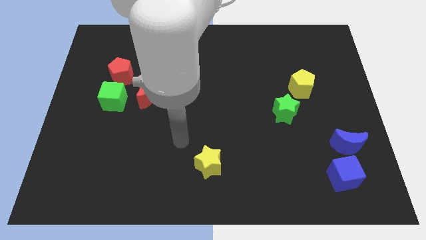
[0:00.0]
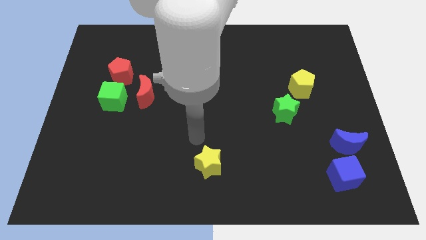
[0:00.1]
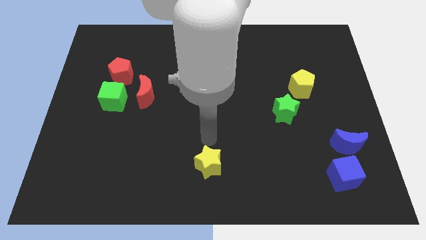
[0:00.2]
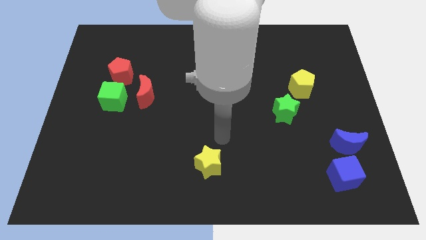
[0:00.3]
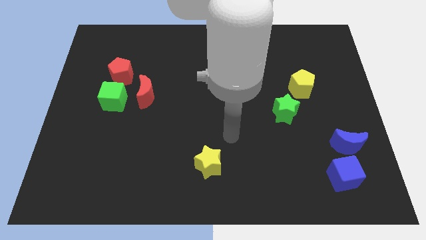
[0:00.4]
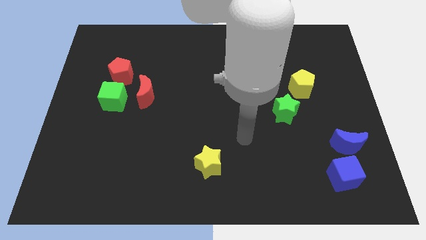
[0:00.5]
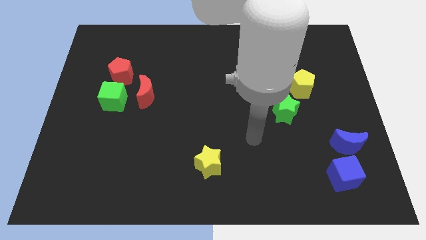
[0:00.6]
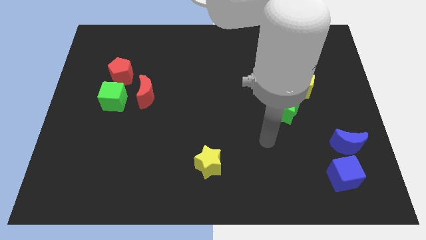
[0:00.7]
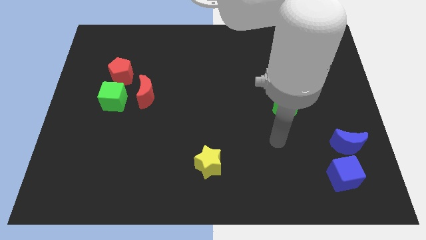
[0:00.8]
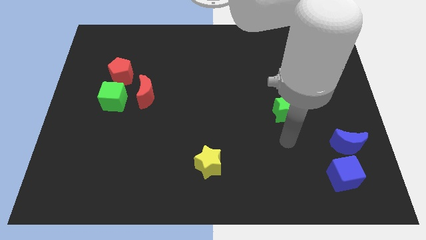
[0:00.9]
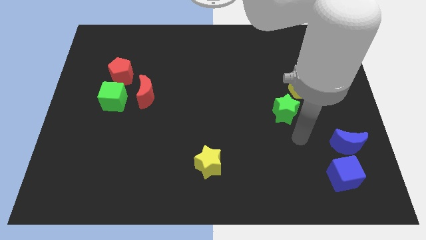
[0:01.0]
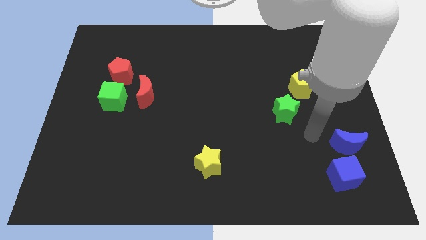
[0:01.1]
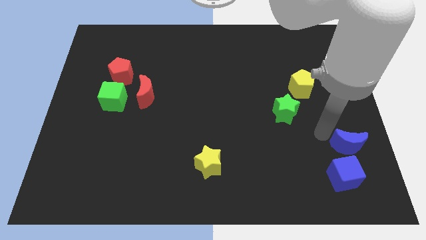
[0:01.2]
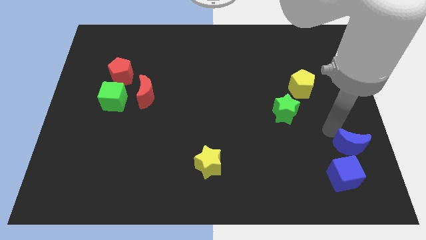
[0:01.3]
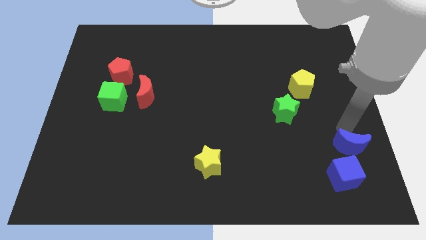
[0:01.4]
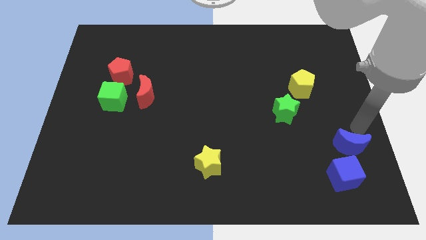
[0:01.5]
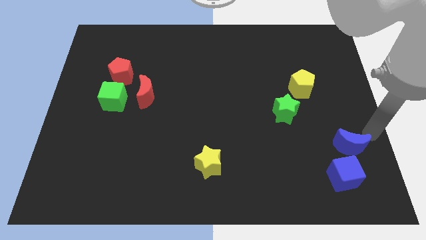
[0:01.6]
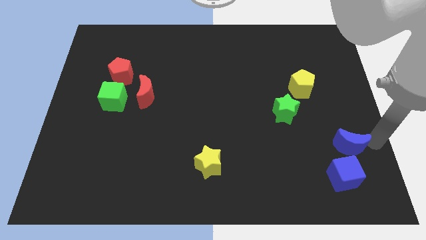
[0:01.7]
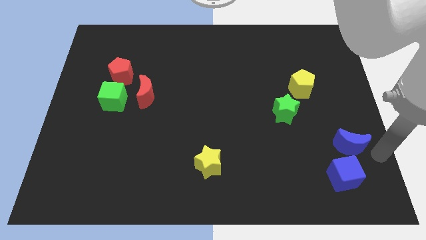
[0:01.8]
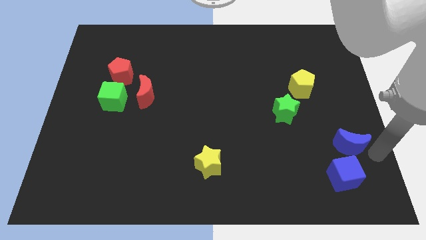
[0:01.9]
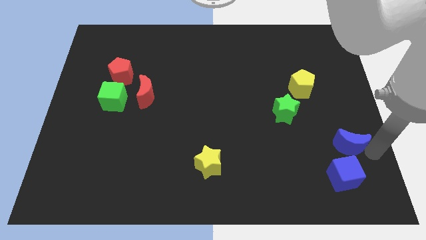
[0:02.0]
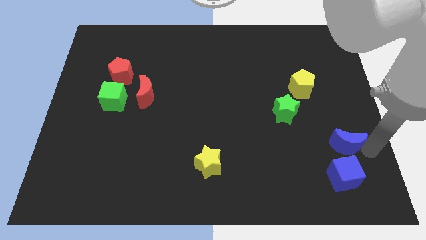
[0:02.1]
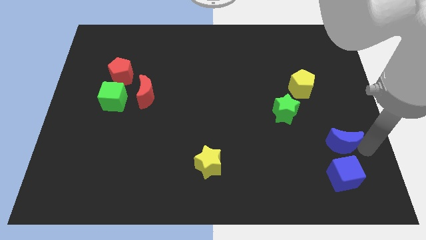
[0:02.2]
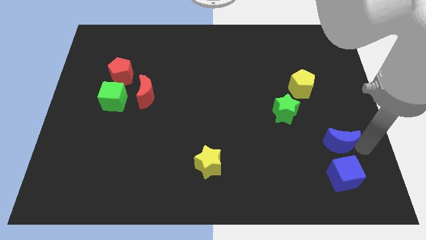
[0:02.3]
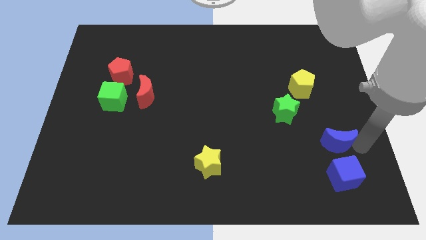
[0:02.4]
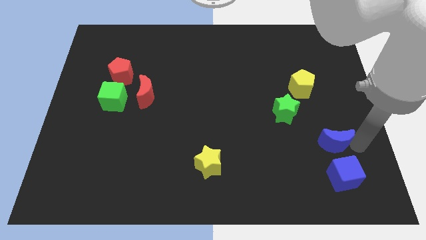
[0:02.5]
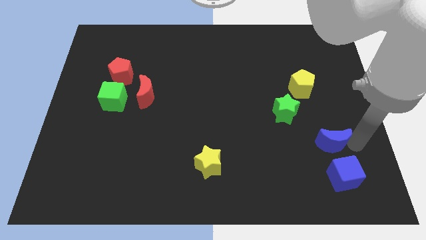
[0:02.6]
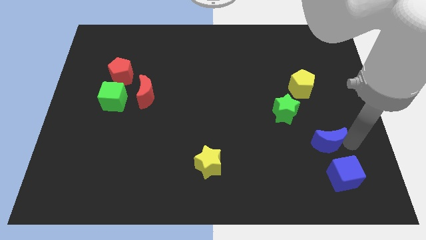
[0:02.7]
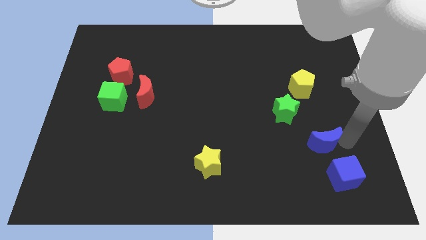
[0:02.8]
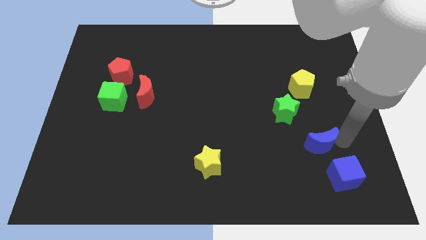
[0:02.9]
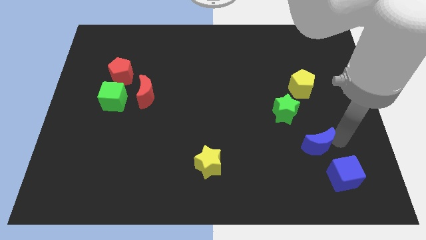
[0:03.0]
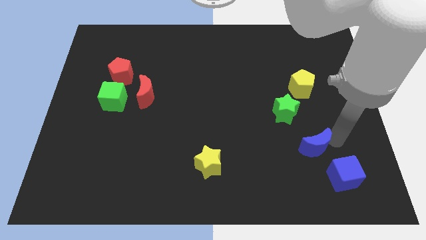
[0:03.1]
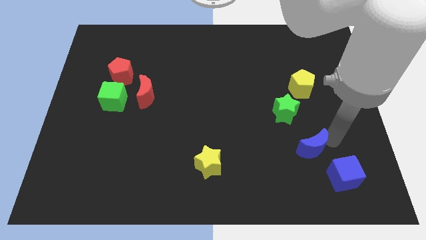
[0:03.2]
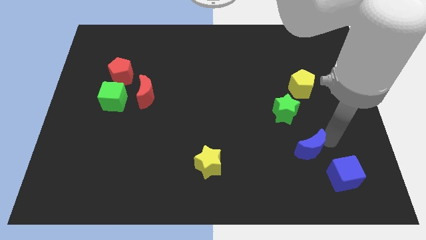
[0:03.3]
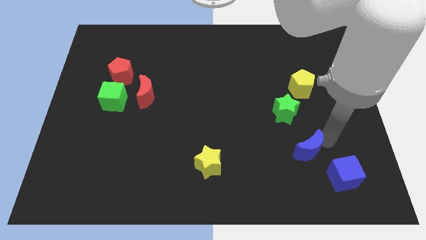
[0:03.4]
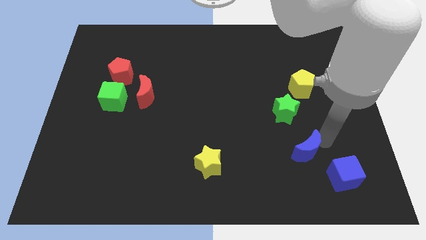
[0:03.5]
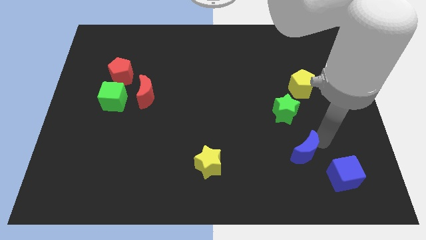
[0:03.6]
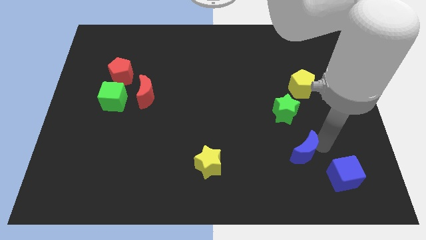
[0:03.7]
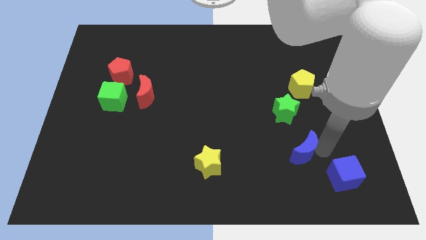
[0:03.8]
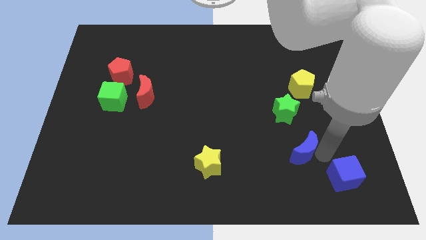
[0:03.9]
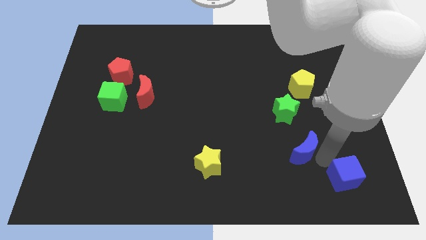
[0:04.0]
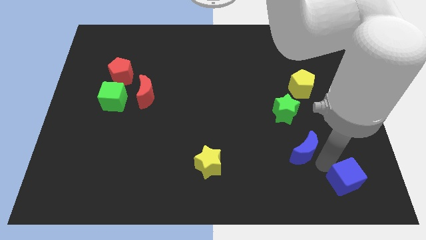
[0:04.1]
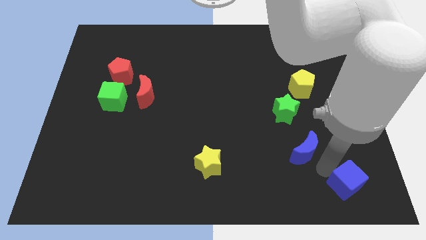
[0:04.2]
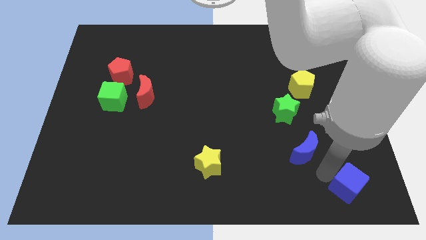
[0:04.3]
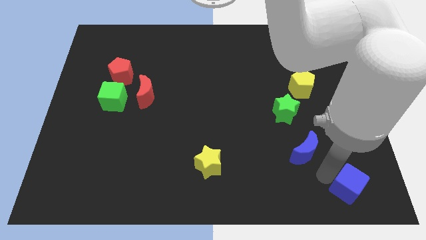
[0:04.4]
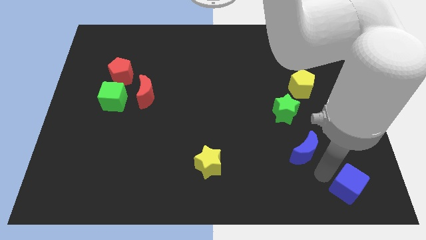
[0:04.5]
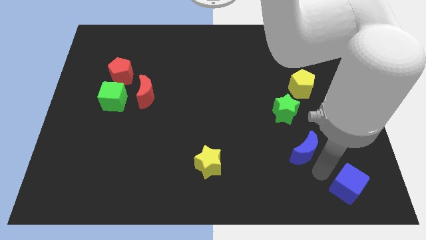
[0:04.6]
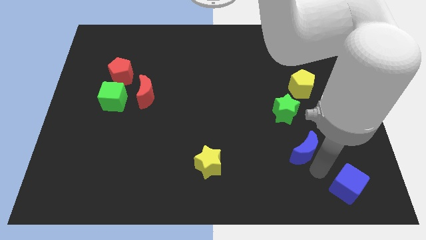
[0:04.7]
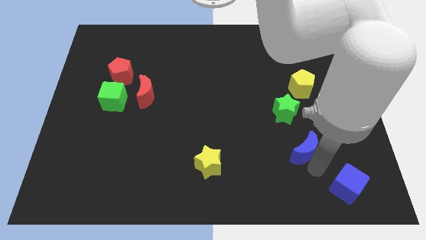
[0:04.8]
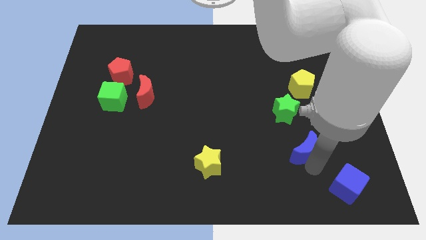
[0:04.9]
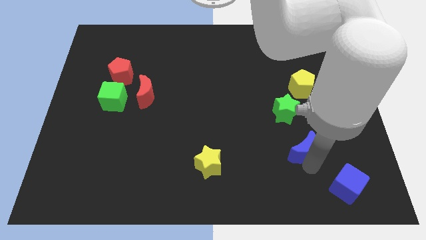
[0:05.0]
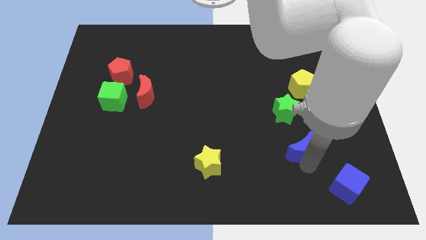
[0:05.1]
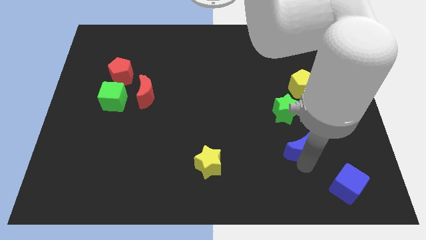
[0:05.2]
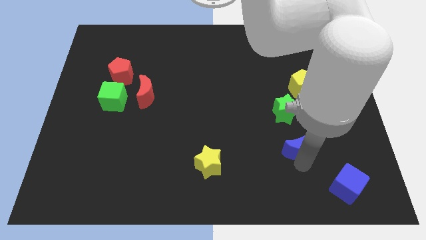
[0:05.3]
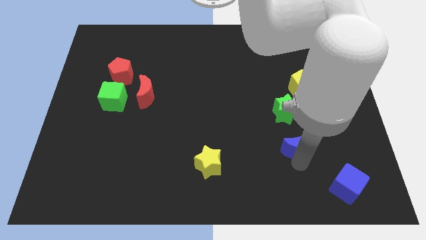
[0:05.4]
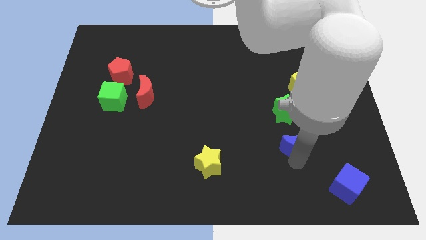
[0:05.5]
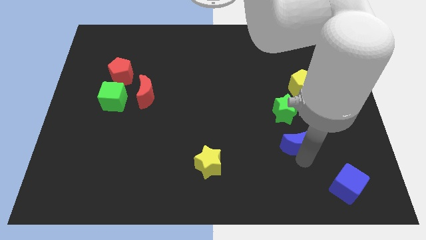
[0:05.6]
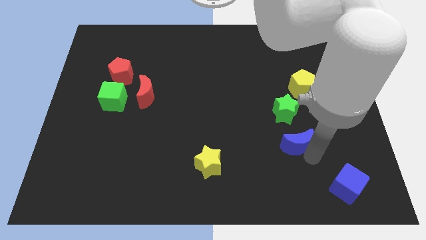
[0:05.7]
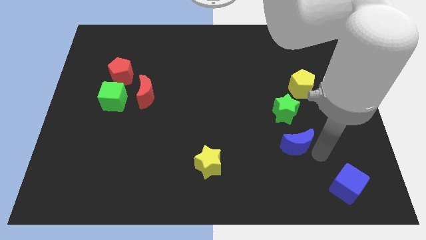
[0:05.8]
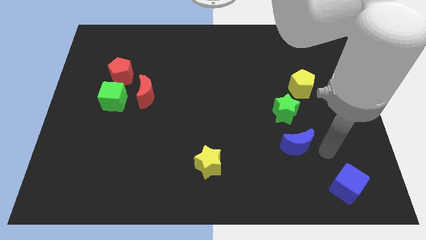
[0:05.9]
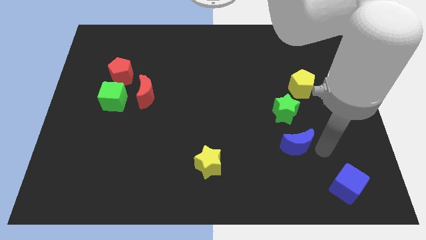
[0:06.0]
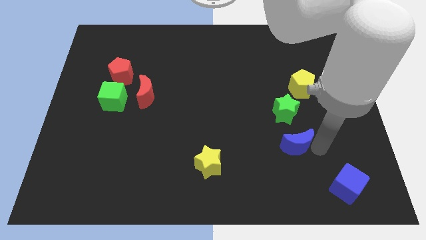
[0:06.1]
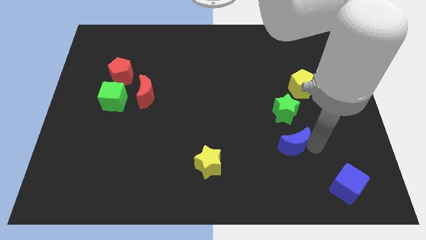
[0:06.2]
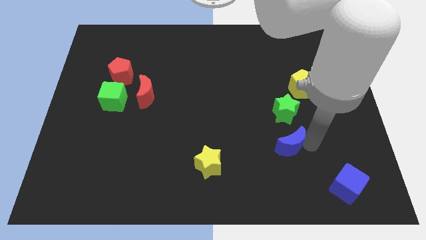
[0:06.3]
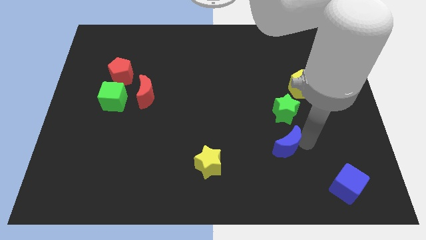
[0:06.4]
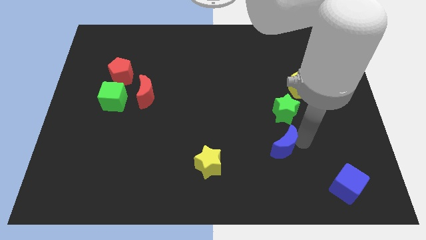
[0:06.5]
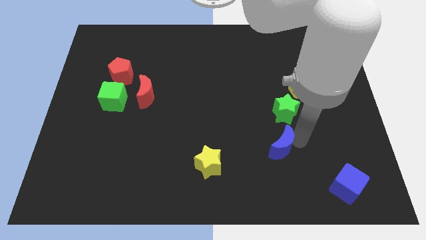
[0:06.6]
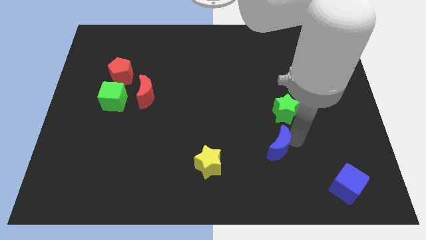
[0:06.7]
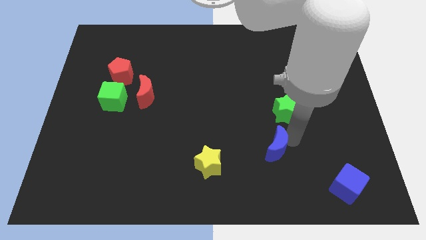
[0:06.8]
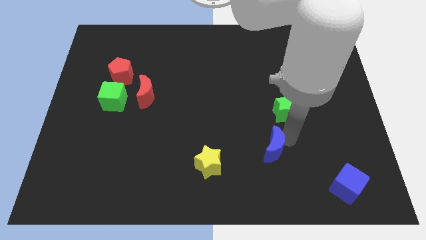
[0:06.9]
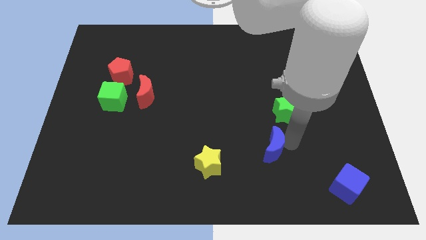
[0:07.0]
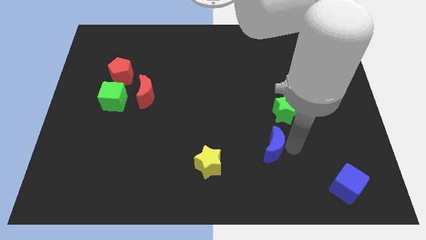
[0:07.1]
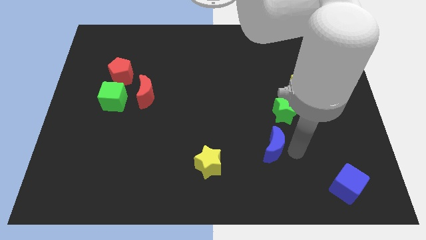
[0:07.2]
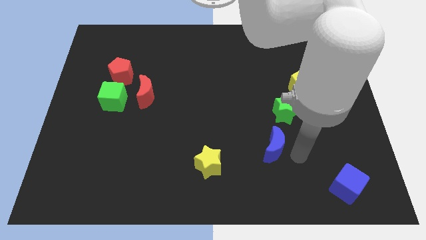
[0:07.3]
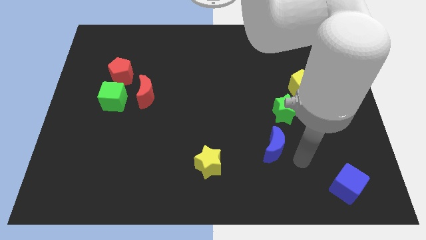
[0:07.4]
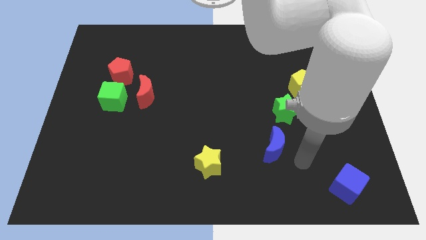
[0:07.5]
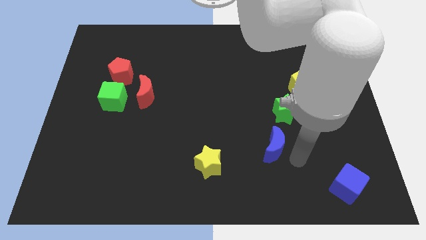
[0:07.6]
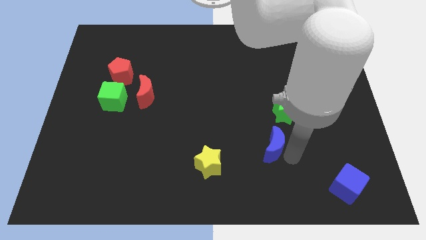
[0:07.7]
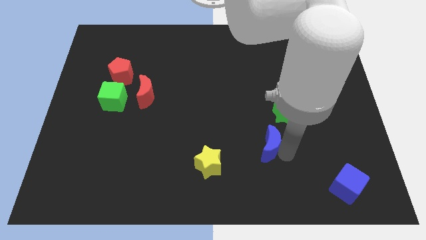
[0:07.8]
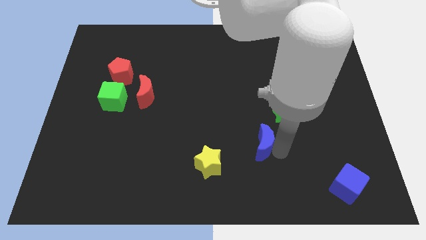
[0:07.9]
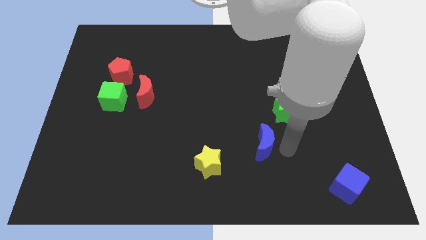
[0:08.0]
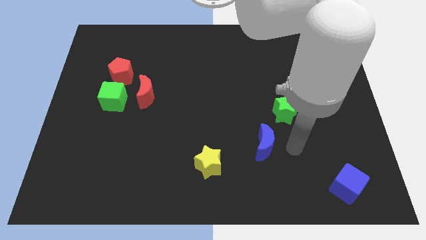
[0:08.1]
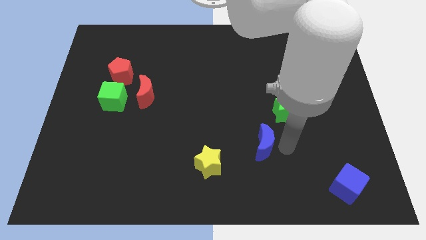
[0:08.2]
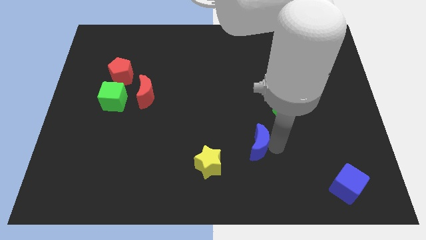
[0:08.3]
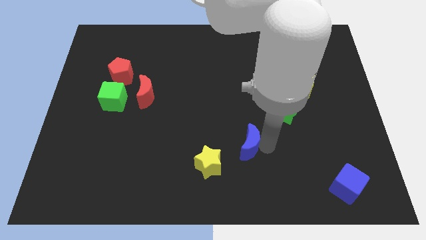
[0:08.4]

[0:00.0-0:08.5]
push the blue moon left
